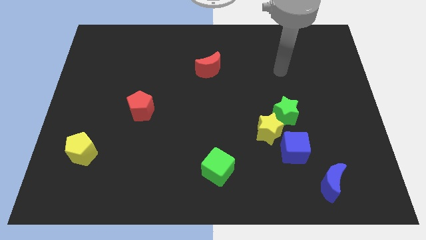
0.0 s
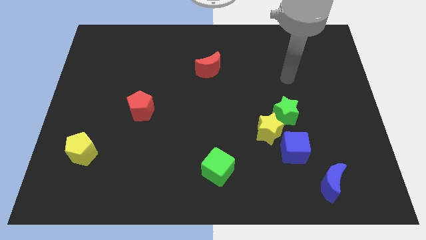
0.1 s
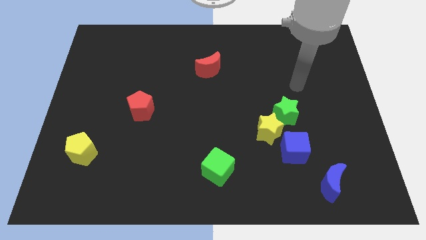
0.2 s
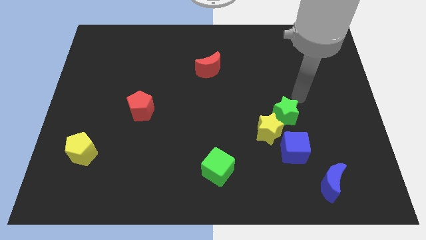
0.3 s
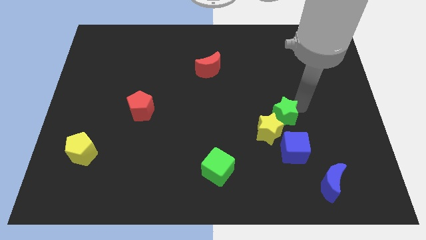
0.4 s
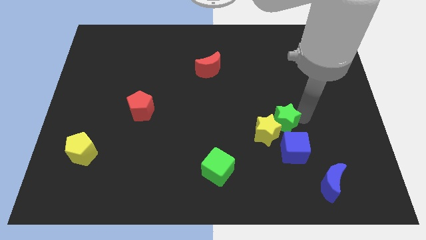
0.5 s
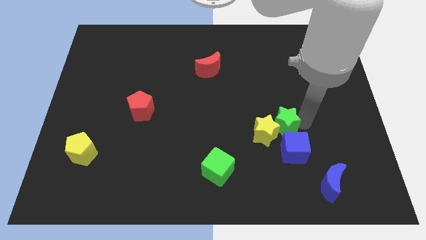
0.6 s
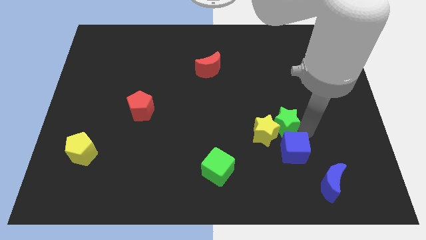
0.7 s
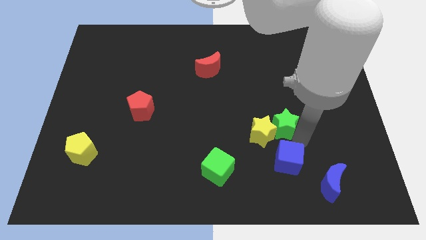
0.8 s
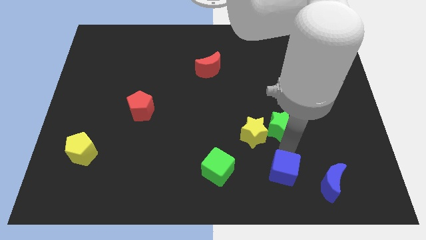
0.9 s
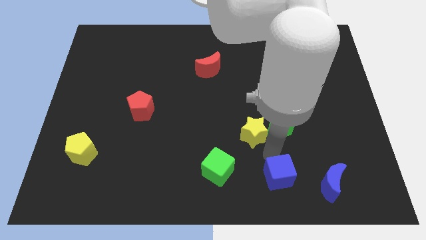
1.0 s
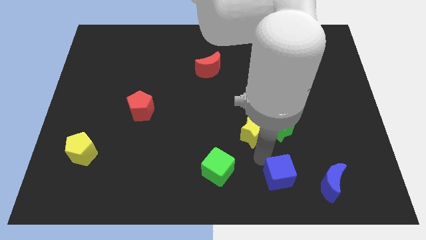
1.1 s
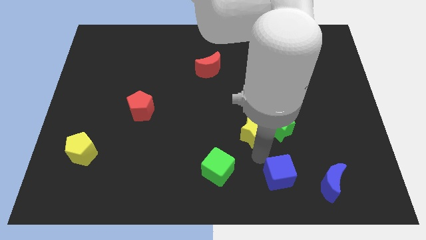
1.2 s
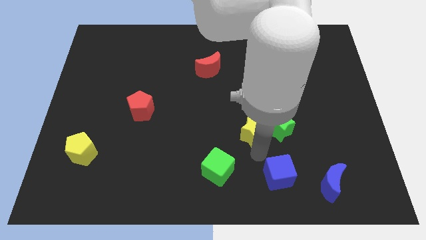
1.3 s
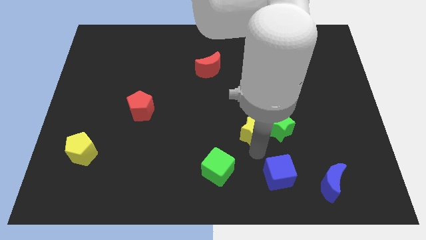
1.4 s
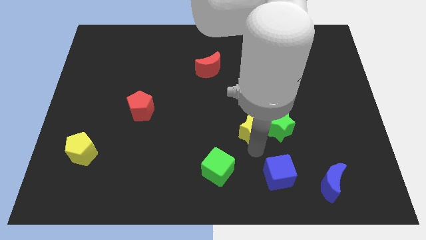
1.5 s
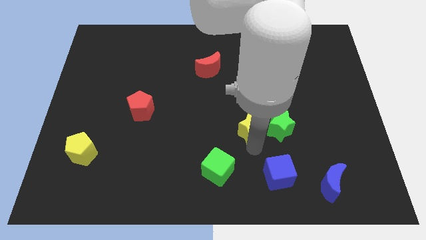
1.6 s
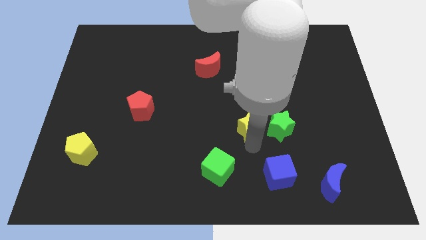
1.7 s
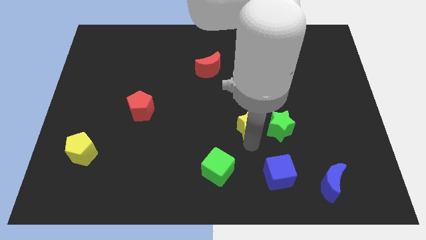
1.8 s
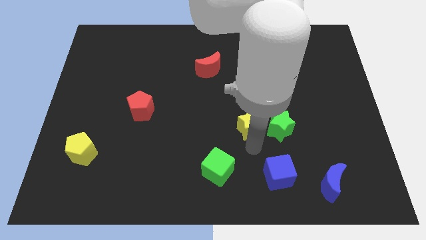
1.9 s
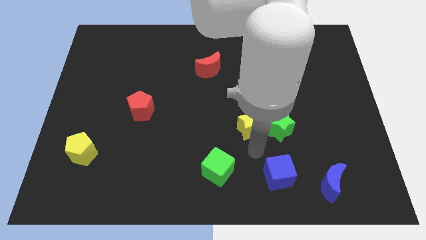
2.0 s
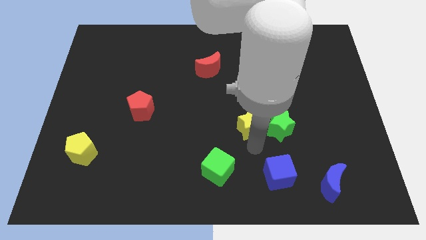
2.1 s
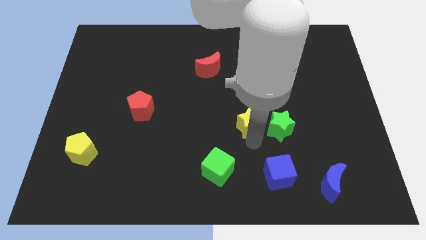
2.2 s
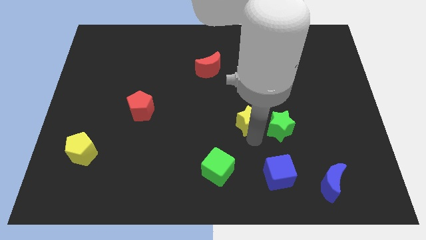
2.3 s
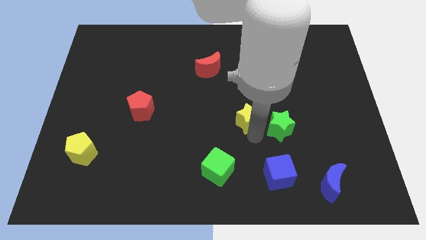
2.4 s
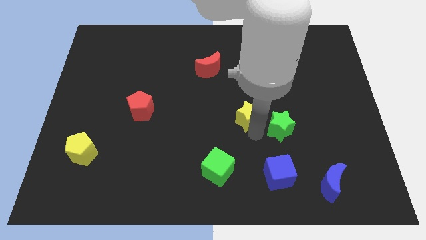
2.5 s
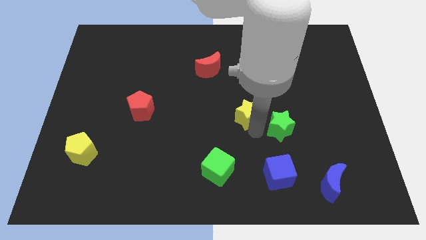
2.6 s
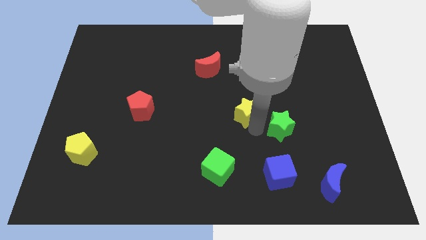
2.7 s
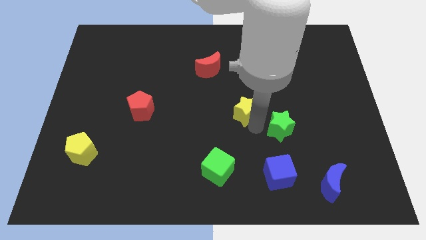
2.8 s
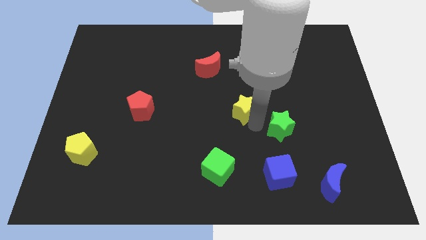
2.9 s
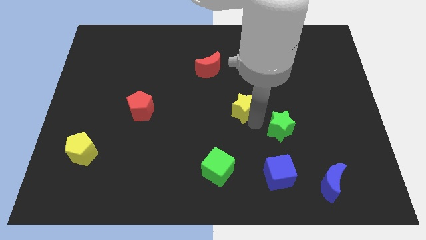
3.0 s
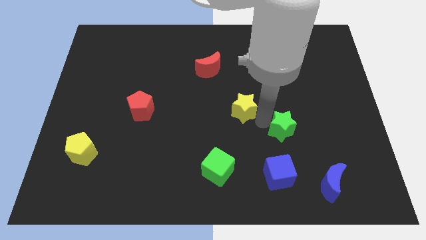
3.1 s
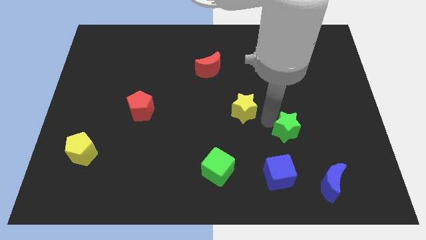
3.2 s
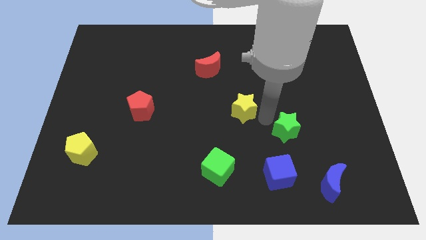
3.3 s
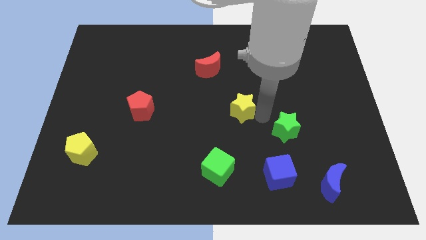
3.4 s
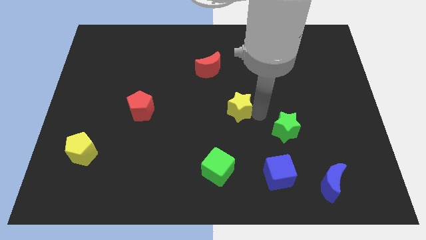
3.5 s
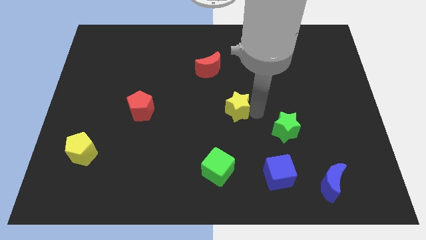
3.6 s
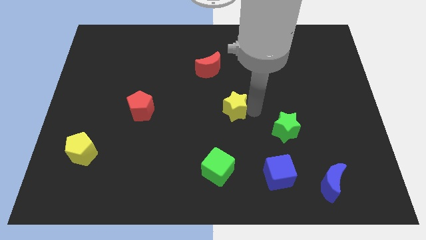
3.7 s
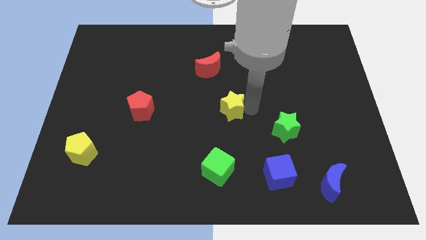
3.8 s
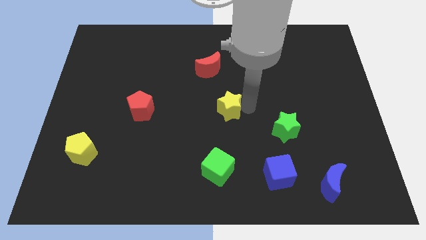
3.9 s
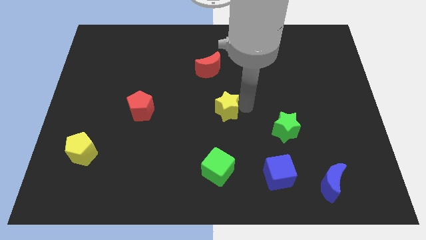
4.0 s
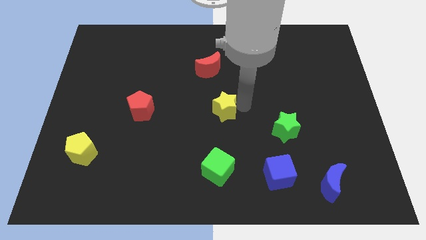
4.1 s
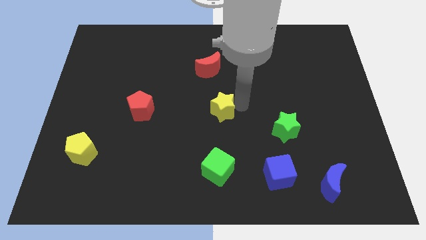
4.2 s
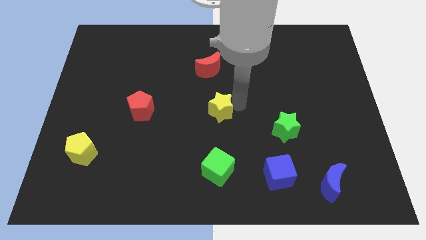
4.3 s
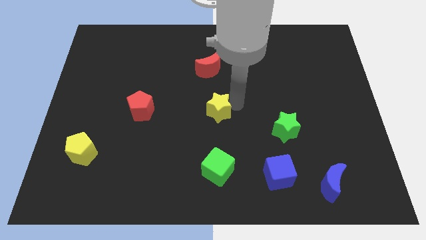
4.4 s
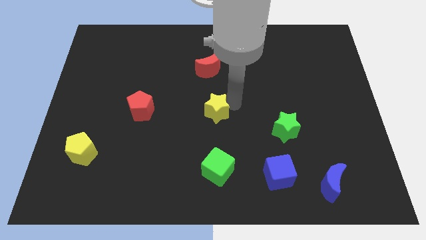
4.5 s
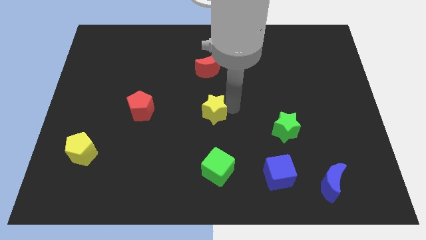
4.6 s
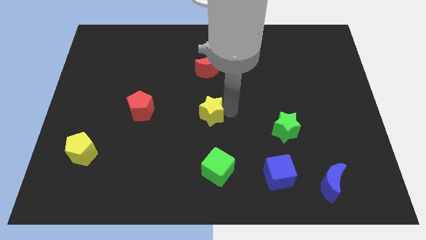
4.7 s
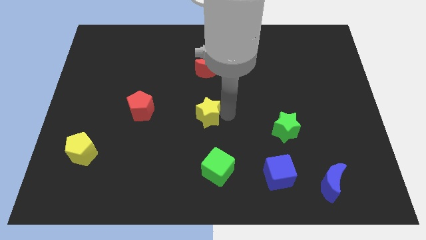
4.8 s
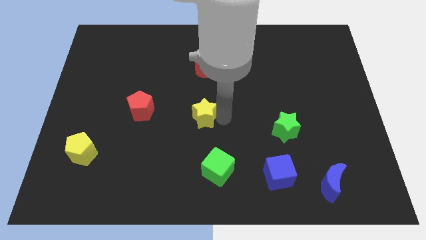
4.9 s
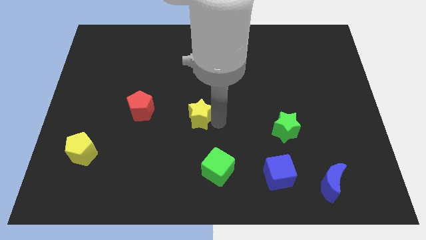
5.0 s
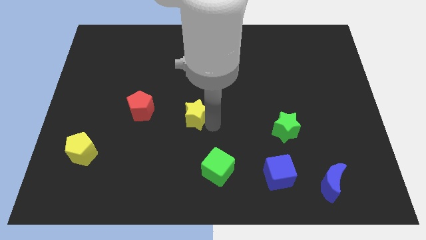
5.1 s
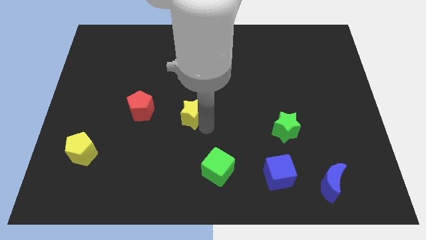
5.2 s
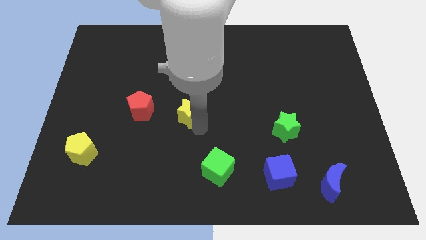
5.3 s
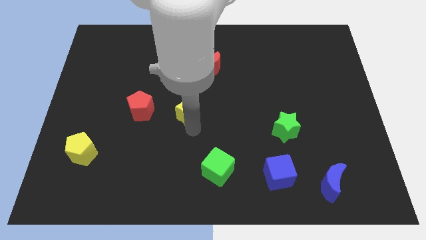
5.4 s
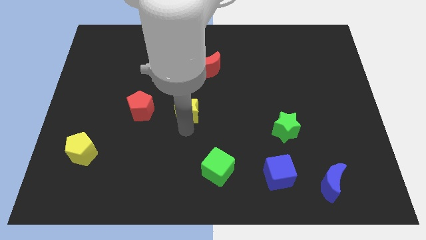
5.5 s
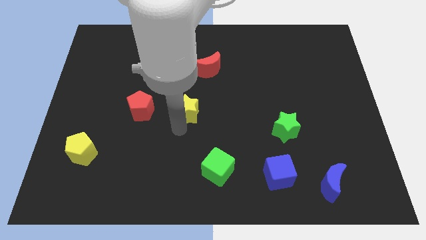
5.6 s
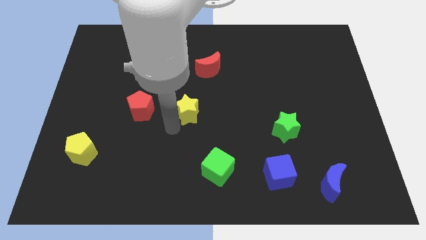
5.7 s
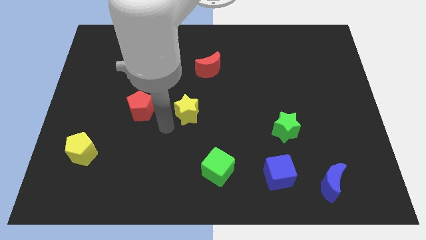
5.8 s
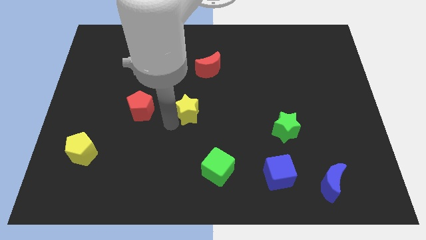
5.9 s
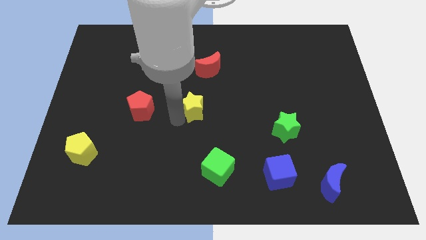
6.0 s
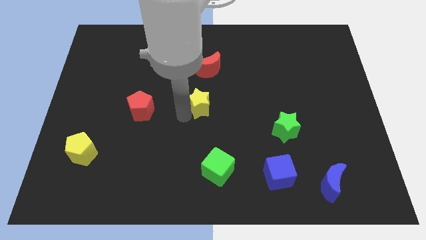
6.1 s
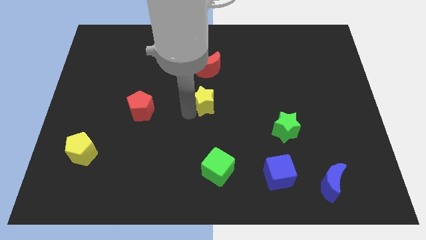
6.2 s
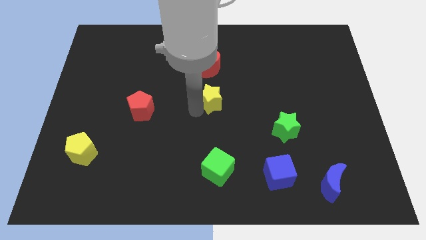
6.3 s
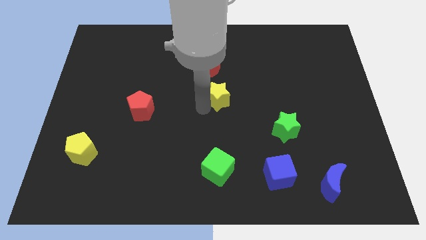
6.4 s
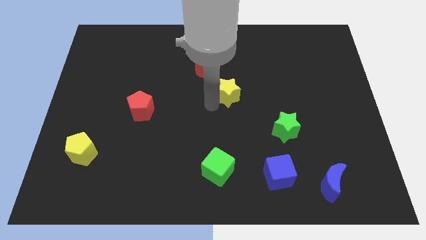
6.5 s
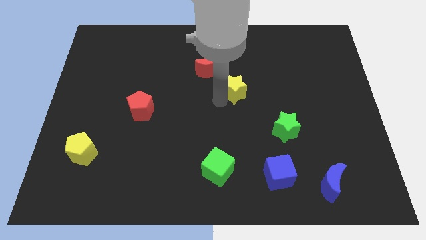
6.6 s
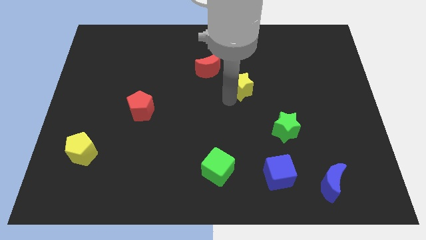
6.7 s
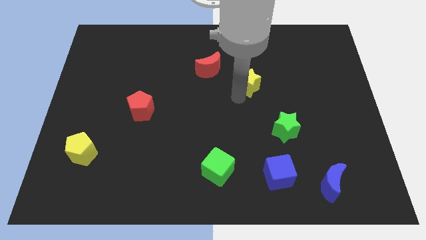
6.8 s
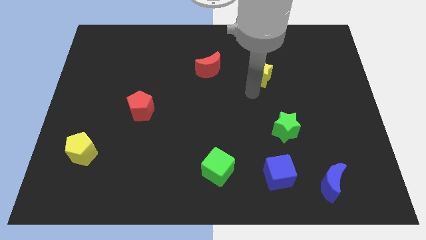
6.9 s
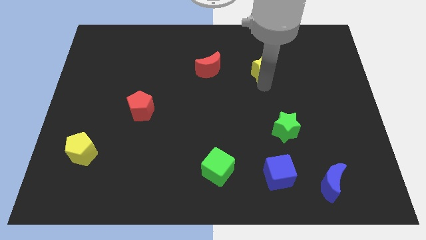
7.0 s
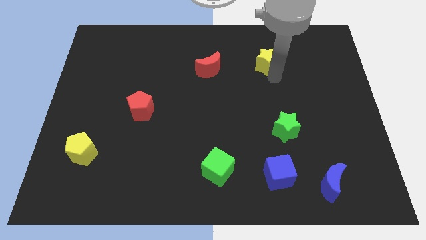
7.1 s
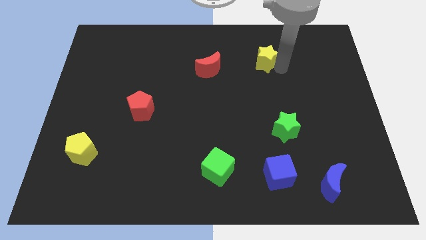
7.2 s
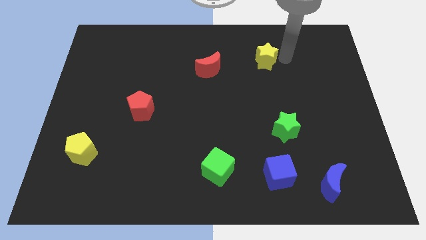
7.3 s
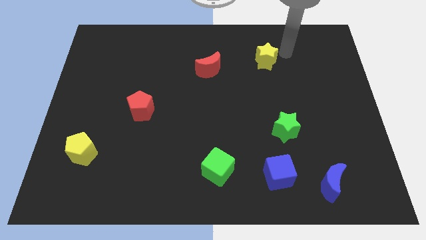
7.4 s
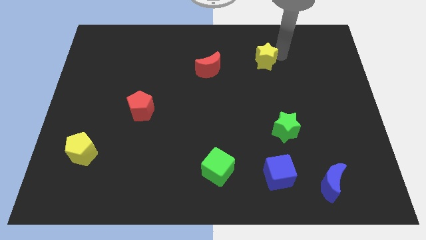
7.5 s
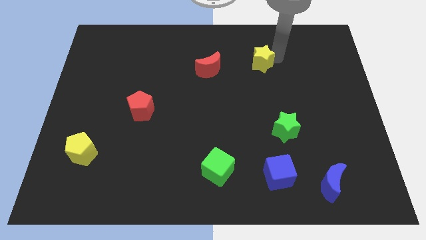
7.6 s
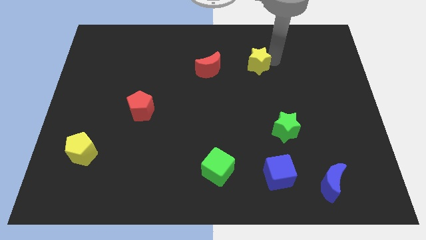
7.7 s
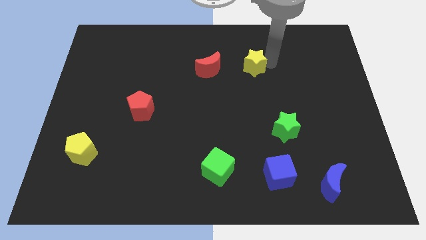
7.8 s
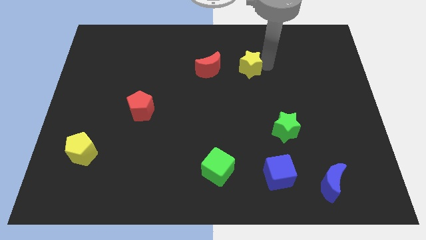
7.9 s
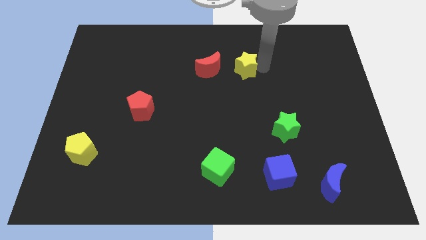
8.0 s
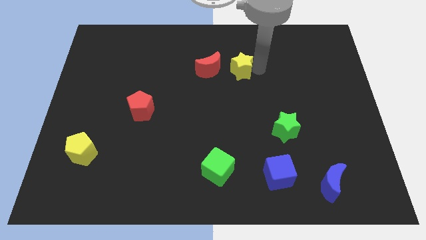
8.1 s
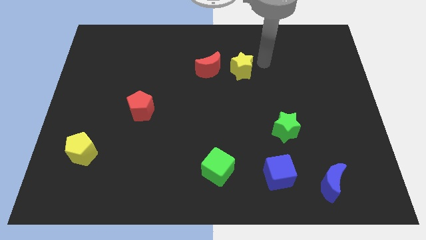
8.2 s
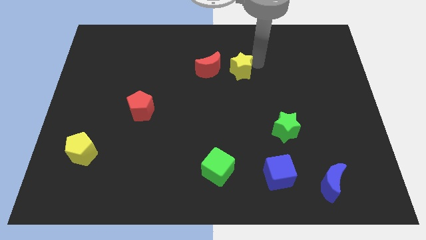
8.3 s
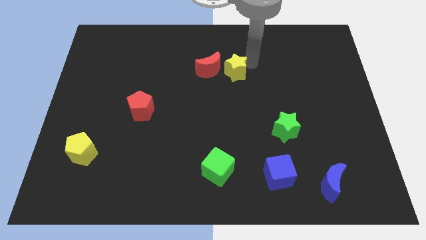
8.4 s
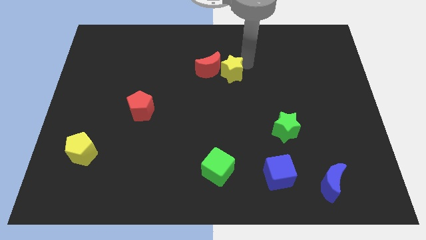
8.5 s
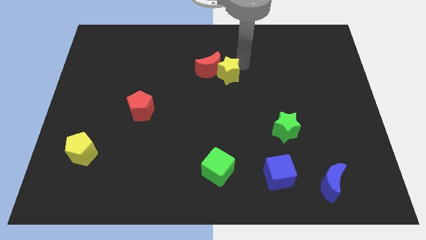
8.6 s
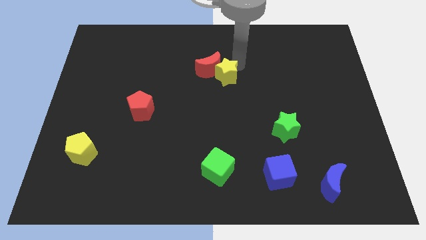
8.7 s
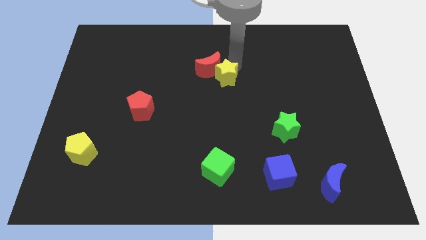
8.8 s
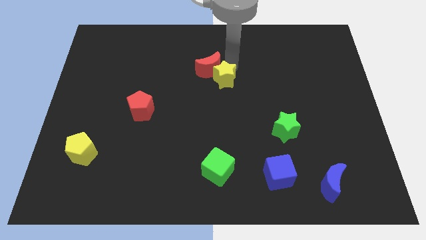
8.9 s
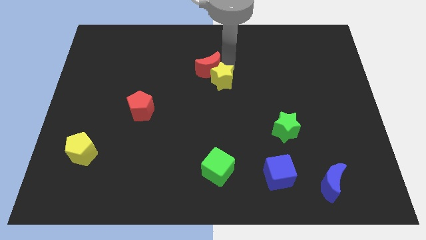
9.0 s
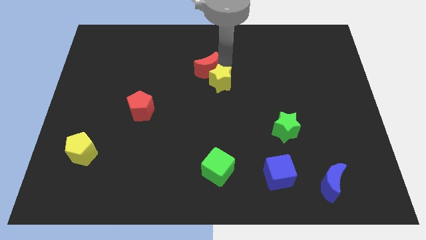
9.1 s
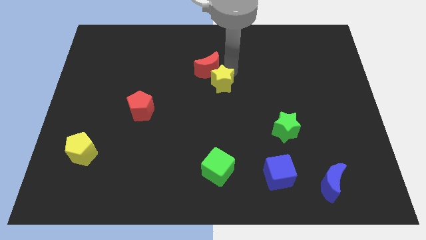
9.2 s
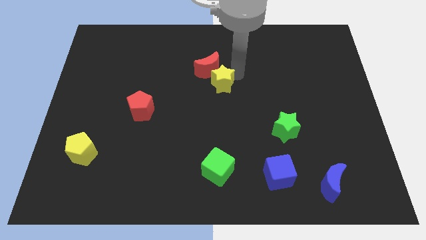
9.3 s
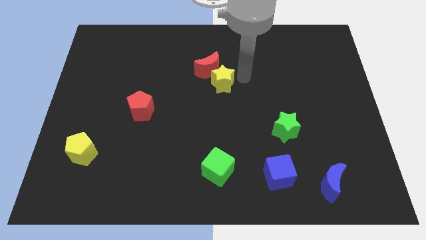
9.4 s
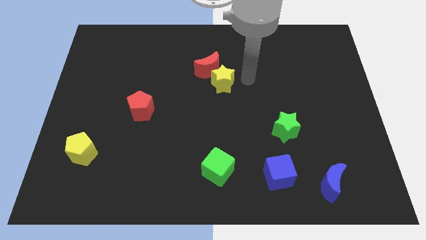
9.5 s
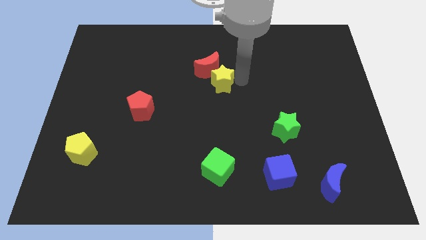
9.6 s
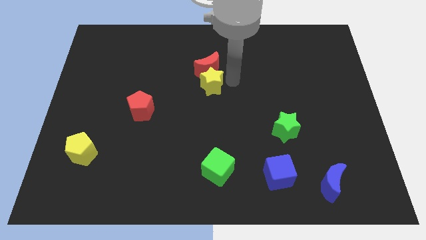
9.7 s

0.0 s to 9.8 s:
slide the yellow star to the bottom left side of the red moon
